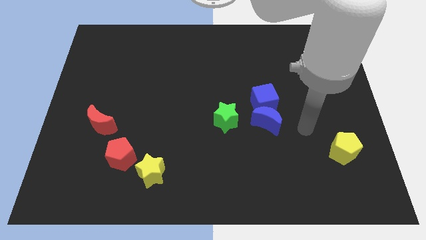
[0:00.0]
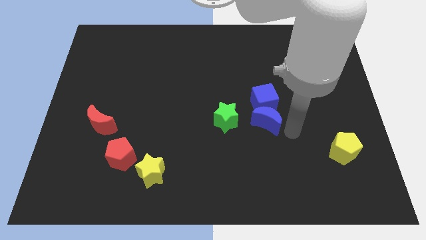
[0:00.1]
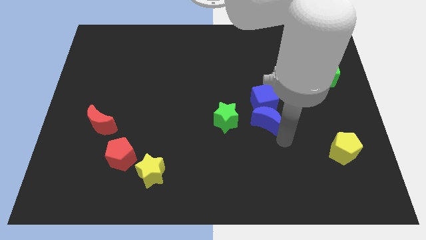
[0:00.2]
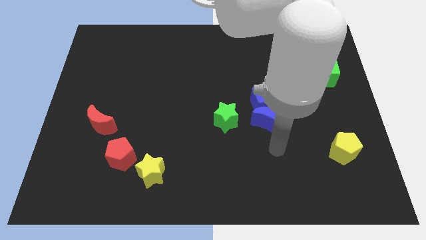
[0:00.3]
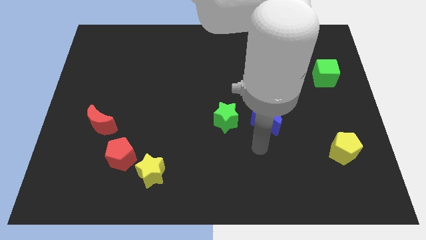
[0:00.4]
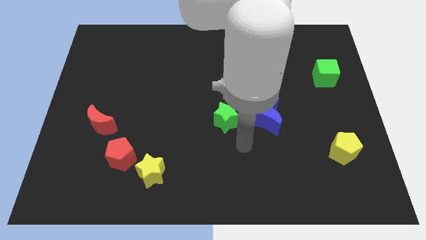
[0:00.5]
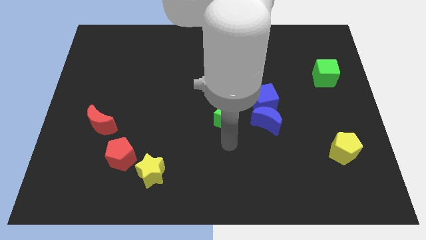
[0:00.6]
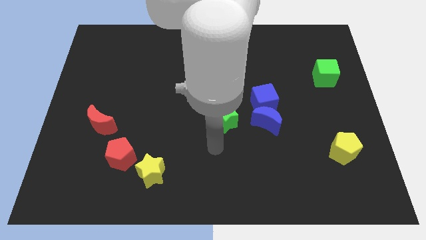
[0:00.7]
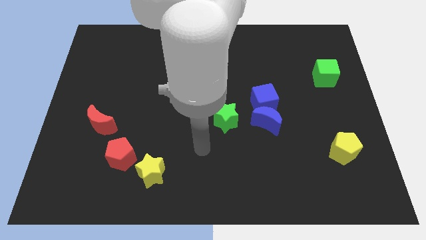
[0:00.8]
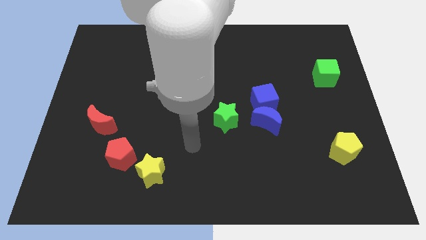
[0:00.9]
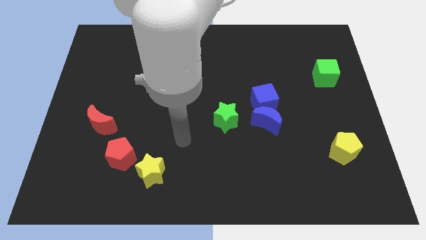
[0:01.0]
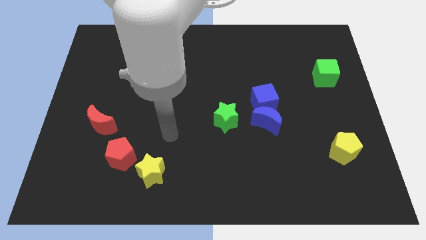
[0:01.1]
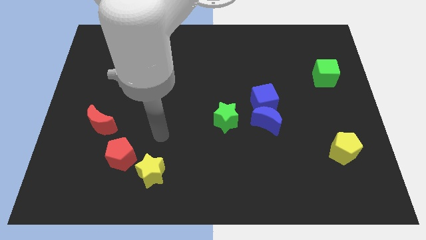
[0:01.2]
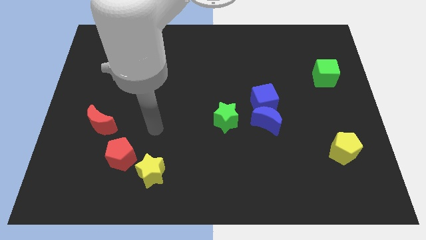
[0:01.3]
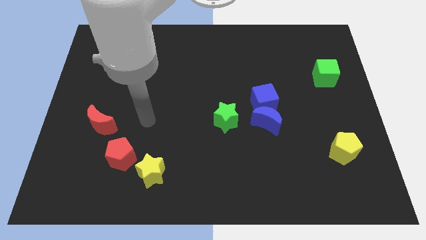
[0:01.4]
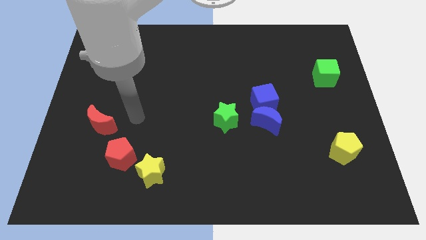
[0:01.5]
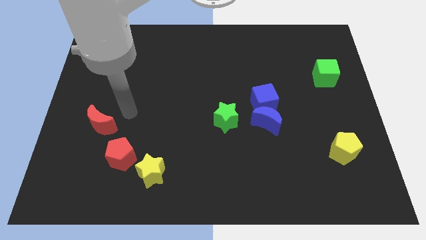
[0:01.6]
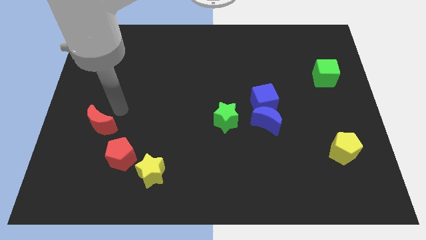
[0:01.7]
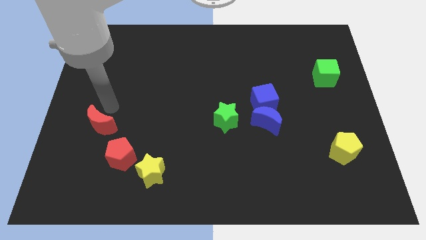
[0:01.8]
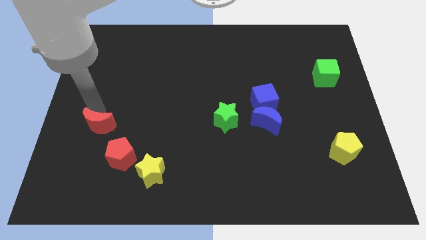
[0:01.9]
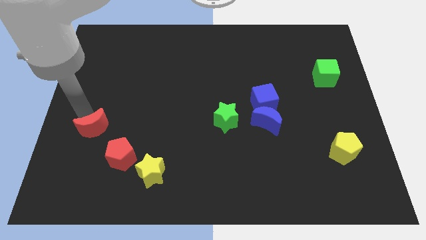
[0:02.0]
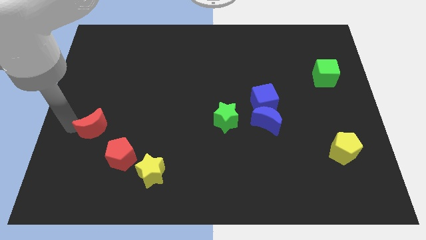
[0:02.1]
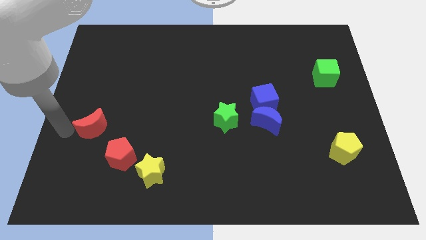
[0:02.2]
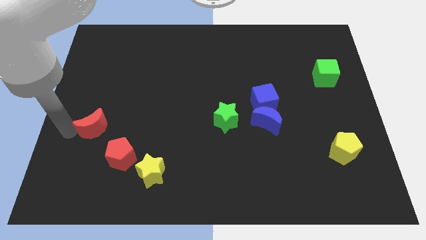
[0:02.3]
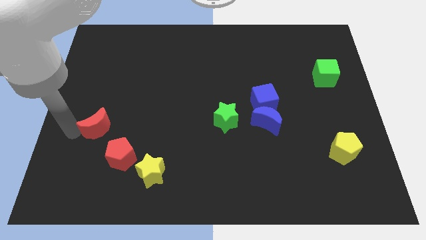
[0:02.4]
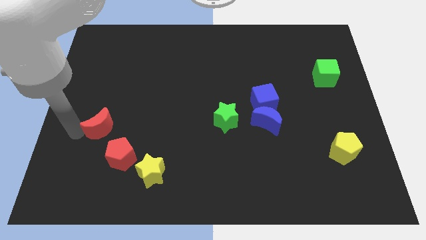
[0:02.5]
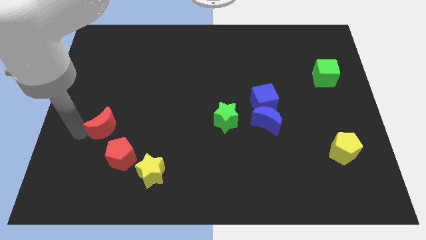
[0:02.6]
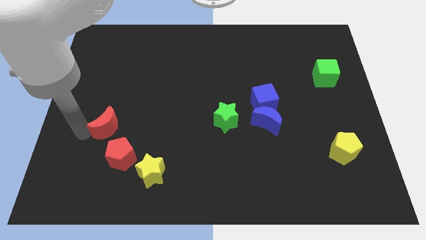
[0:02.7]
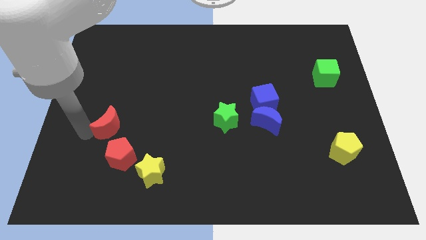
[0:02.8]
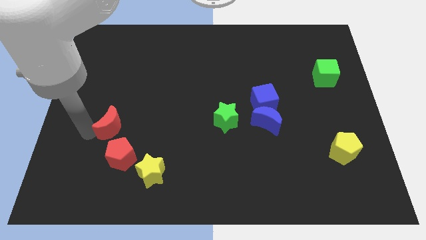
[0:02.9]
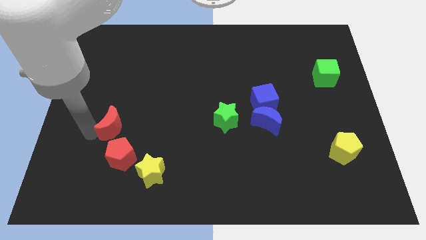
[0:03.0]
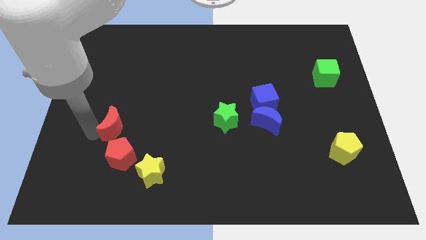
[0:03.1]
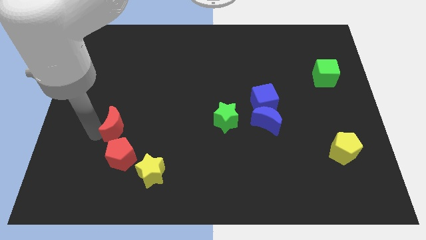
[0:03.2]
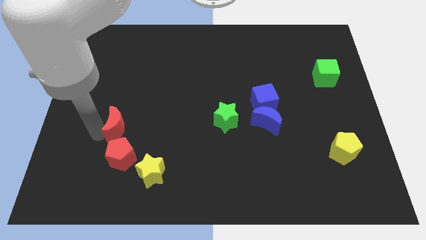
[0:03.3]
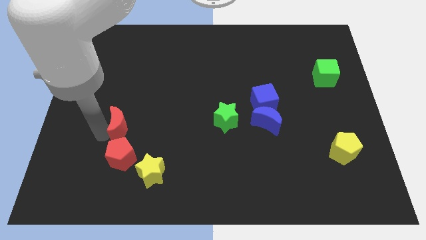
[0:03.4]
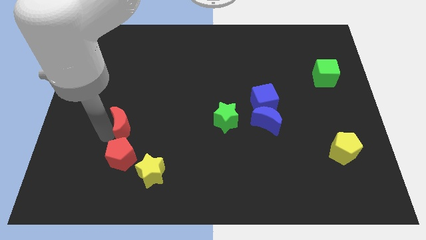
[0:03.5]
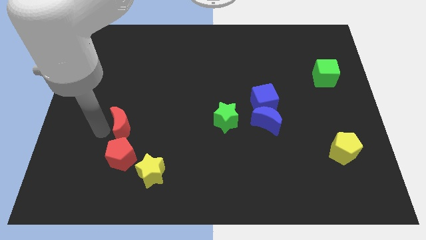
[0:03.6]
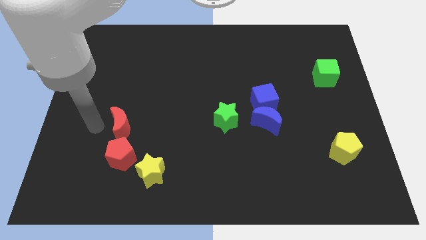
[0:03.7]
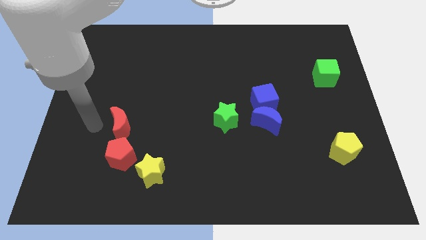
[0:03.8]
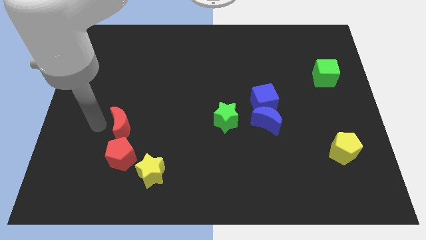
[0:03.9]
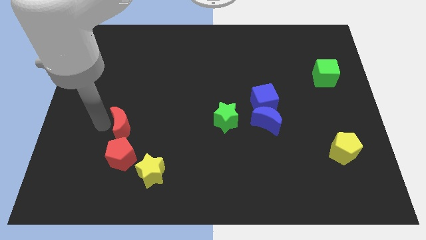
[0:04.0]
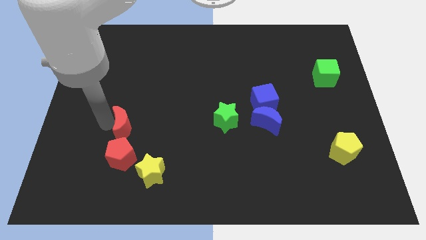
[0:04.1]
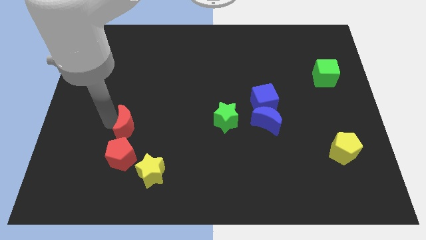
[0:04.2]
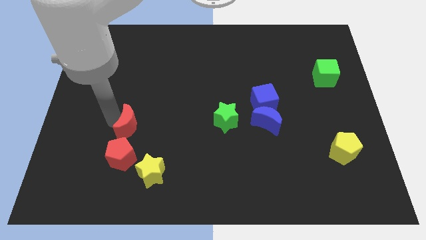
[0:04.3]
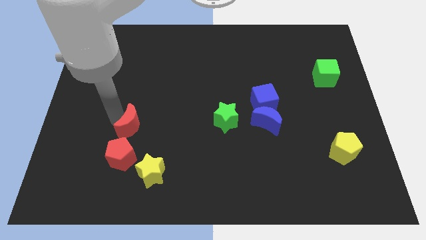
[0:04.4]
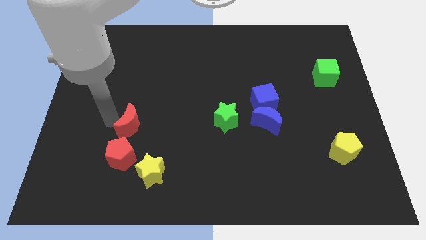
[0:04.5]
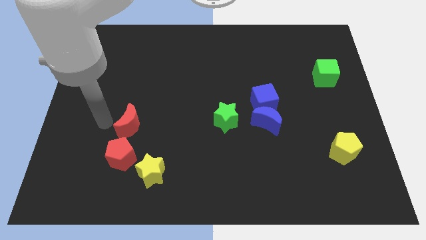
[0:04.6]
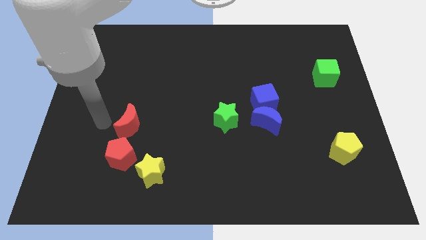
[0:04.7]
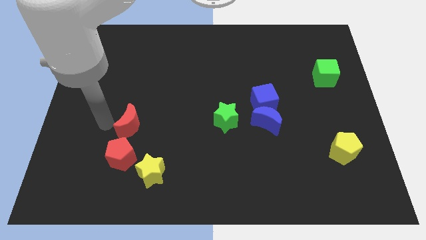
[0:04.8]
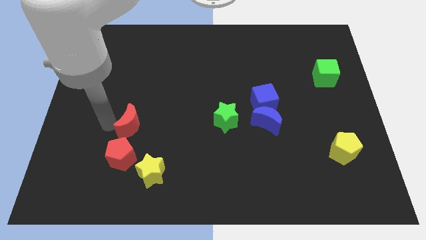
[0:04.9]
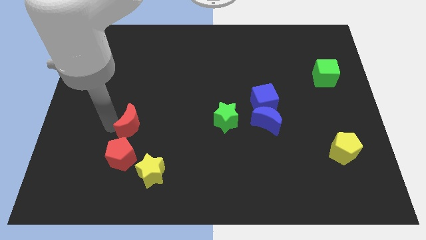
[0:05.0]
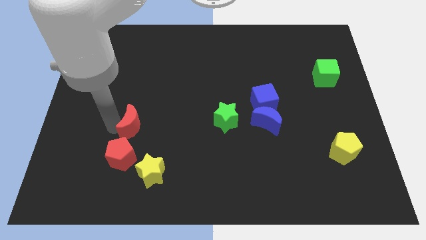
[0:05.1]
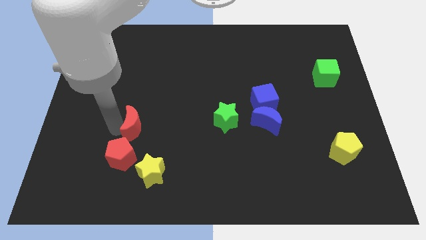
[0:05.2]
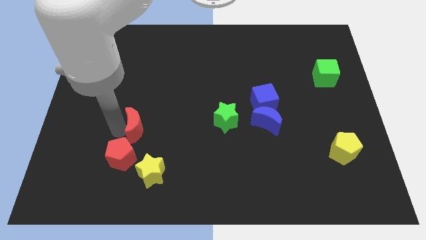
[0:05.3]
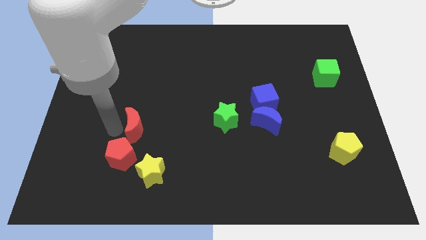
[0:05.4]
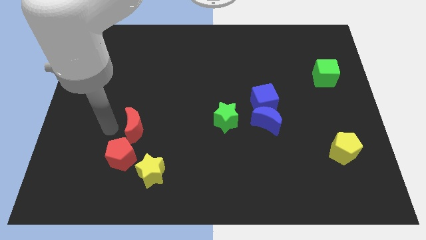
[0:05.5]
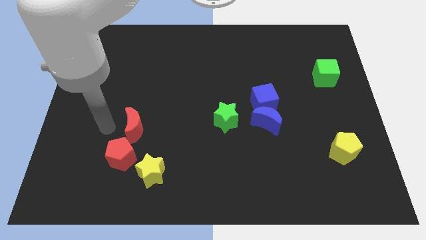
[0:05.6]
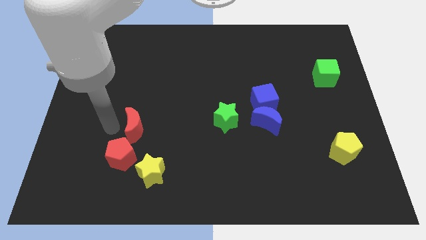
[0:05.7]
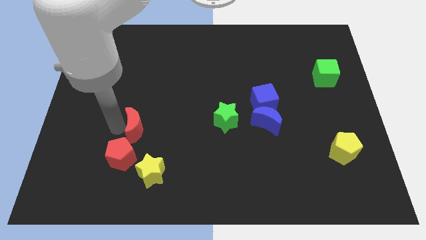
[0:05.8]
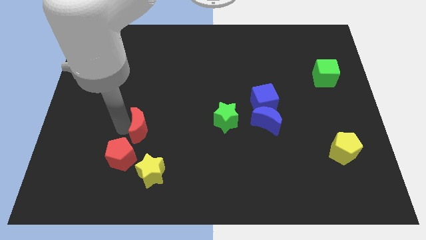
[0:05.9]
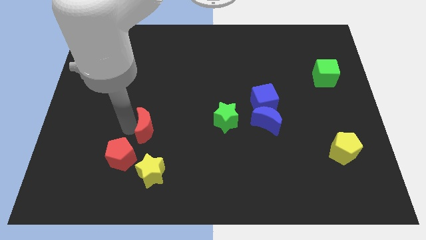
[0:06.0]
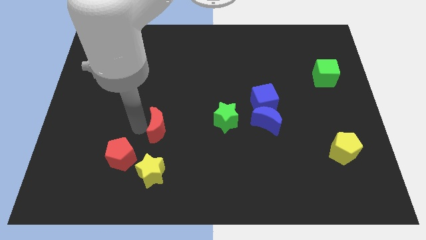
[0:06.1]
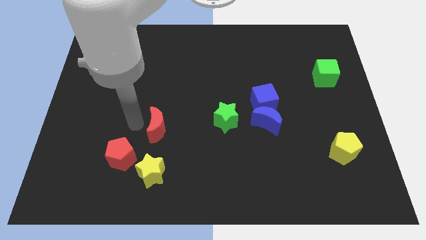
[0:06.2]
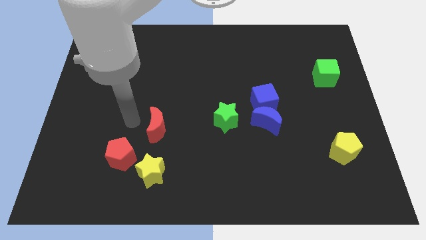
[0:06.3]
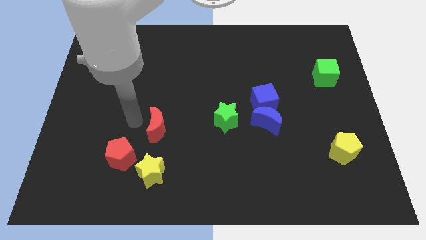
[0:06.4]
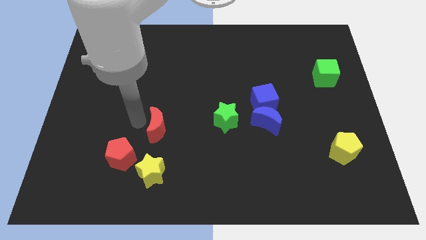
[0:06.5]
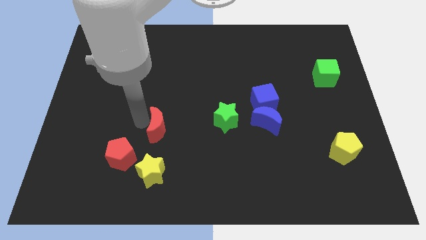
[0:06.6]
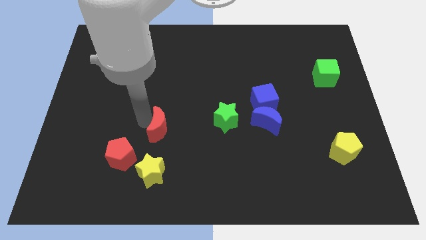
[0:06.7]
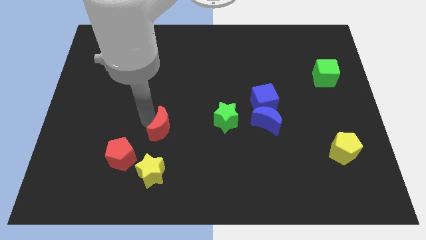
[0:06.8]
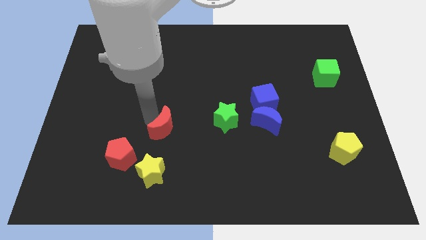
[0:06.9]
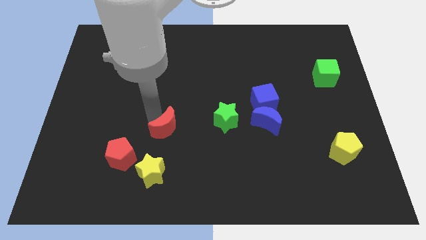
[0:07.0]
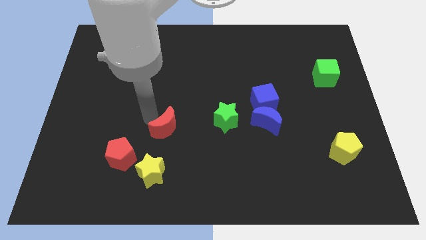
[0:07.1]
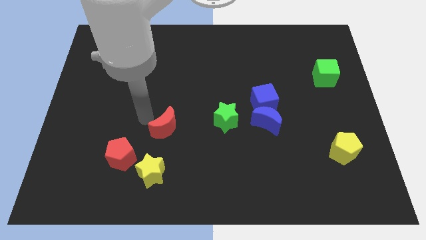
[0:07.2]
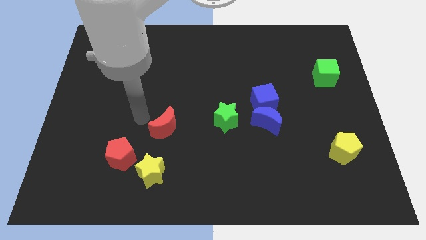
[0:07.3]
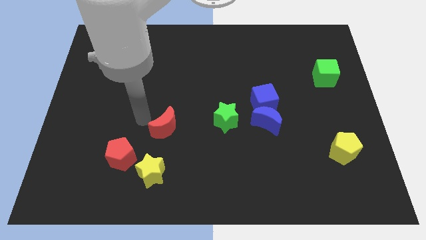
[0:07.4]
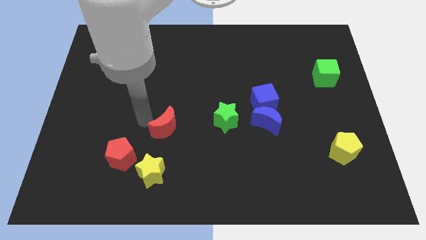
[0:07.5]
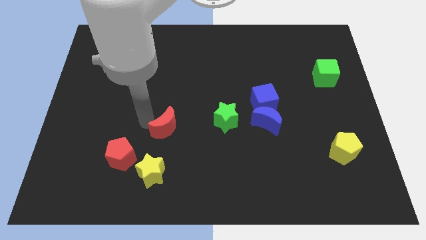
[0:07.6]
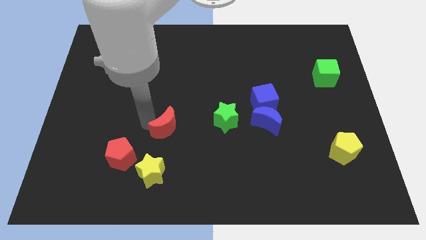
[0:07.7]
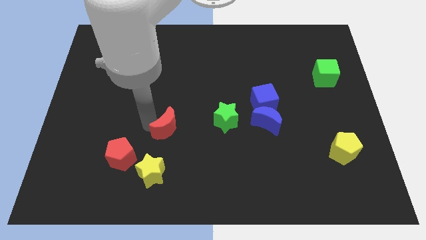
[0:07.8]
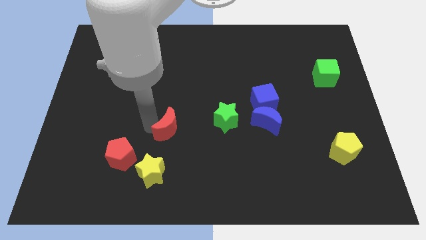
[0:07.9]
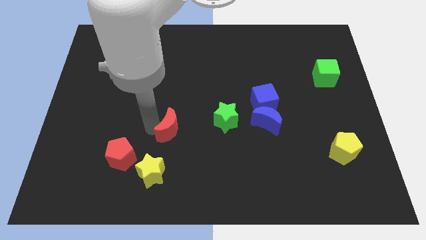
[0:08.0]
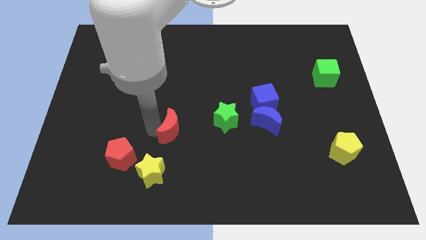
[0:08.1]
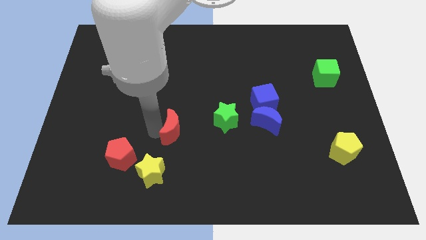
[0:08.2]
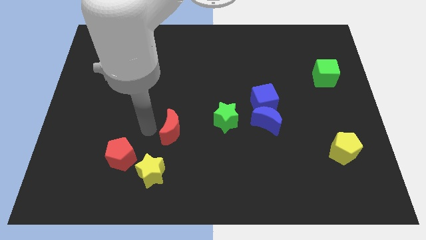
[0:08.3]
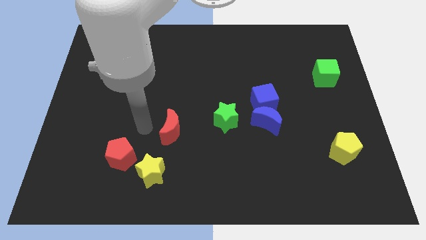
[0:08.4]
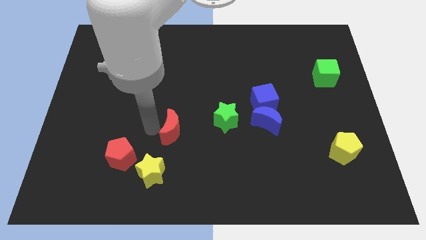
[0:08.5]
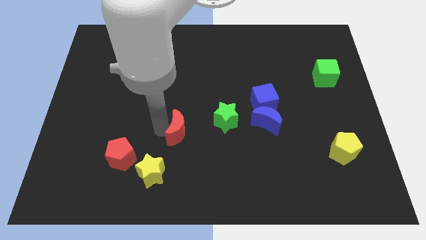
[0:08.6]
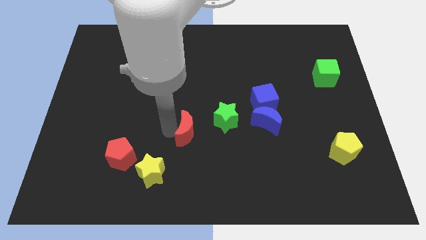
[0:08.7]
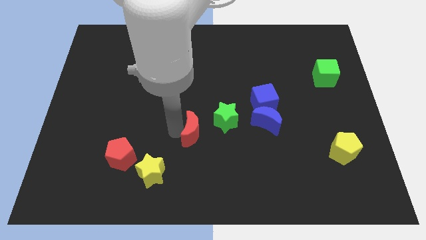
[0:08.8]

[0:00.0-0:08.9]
move the red moon to the right
